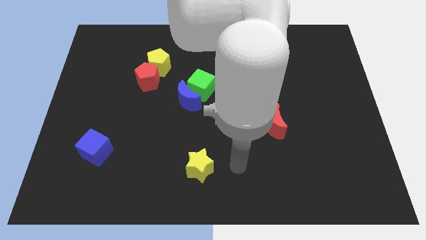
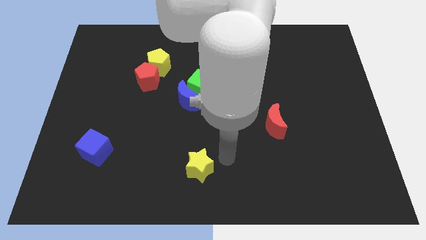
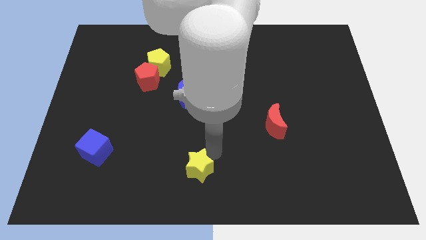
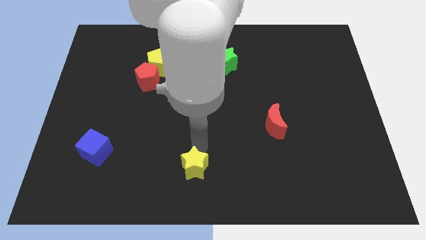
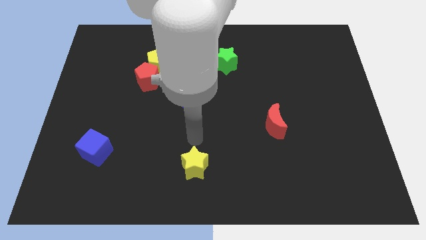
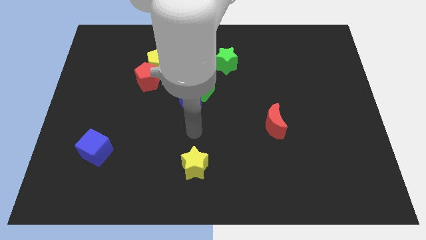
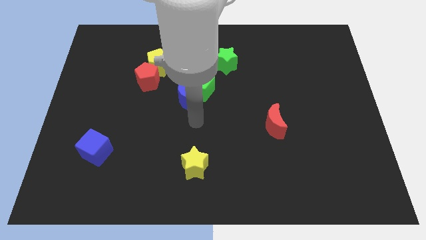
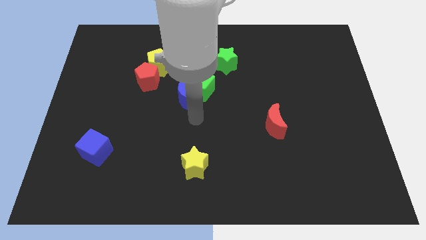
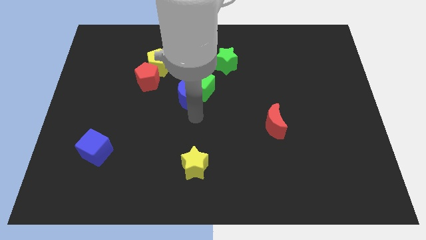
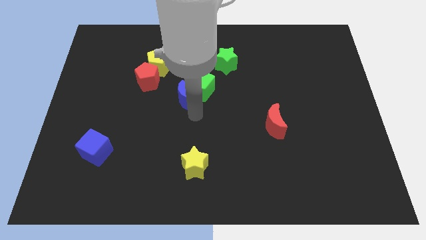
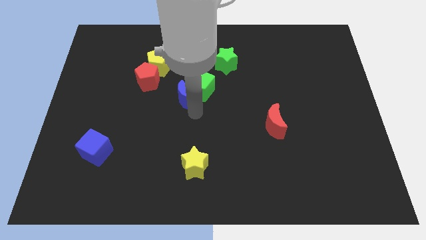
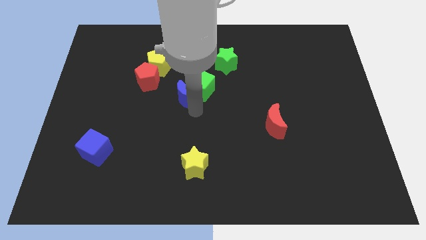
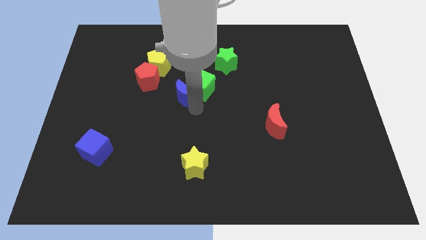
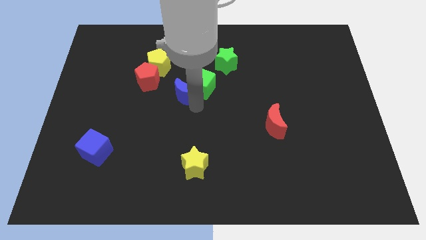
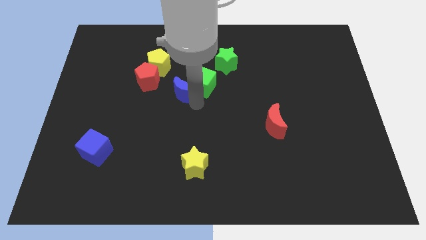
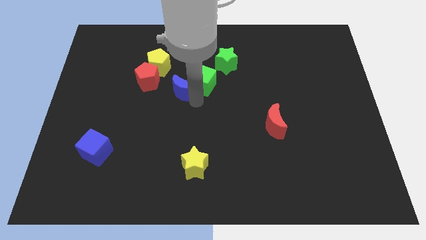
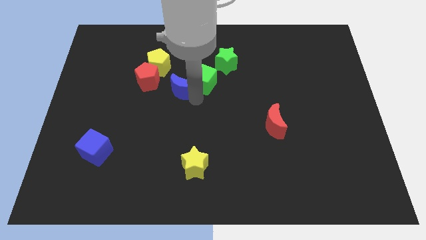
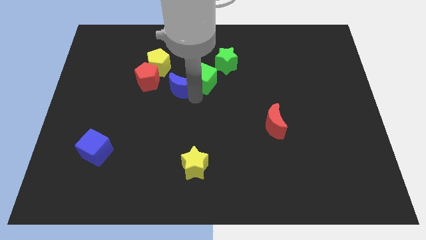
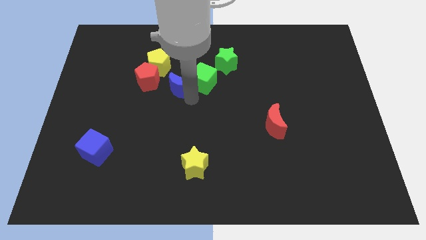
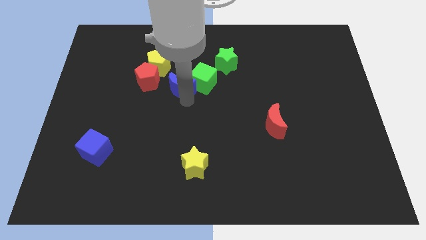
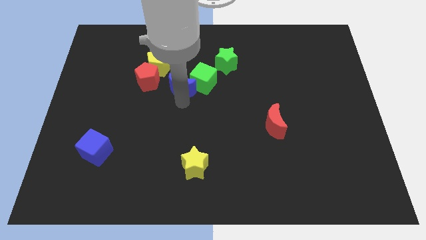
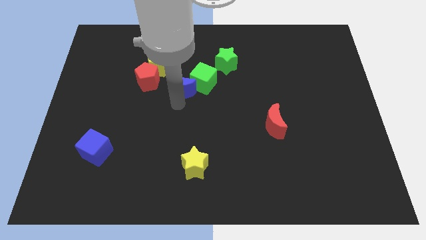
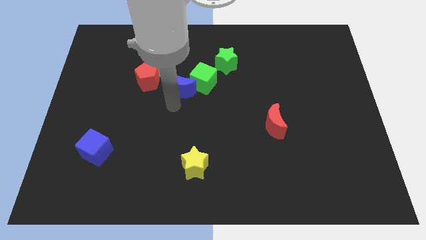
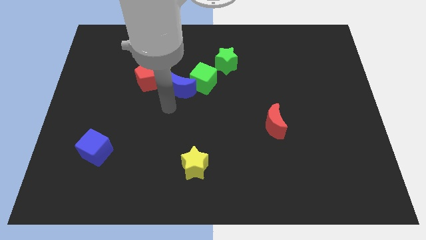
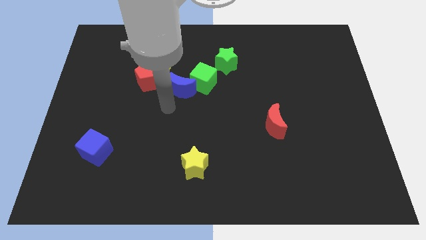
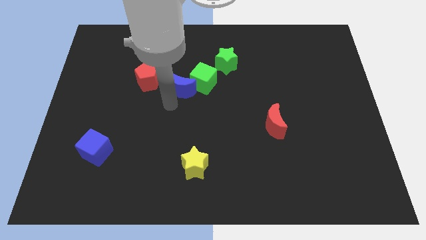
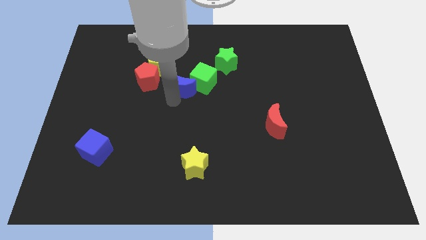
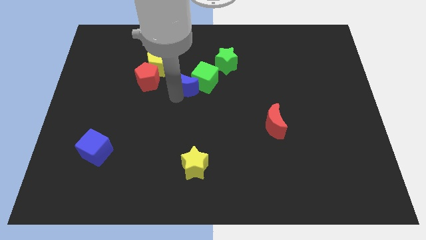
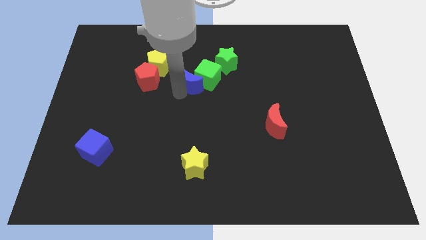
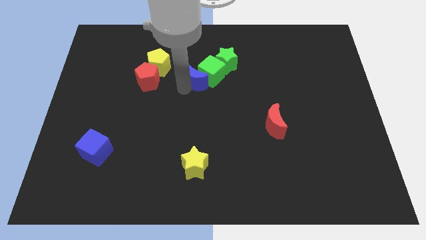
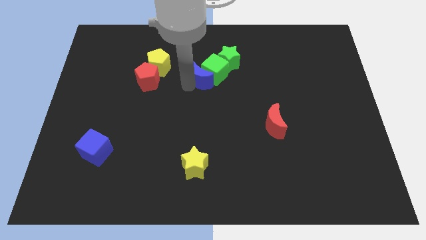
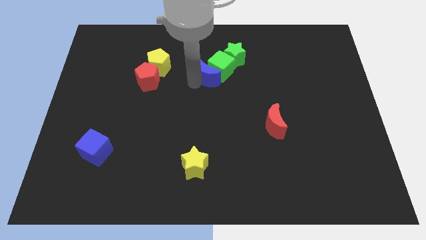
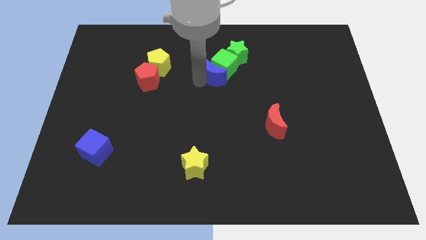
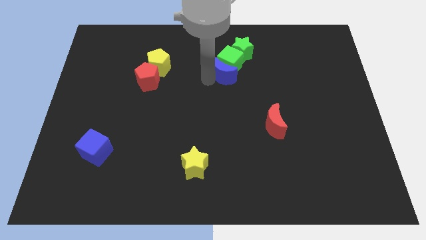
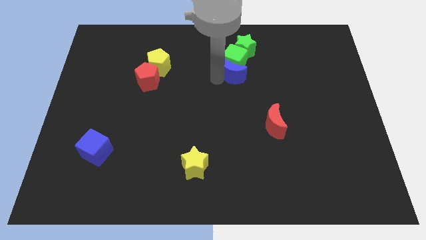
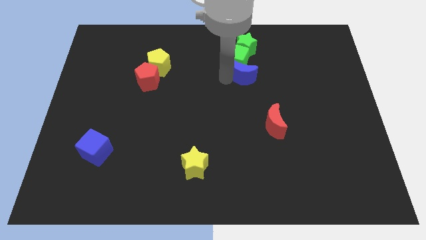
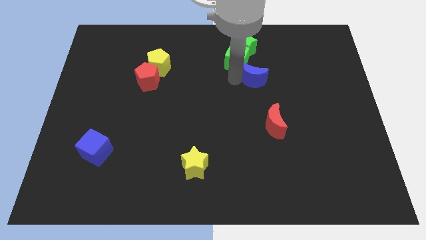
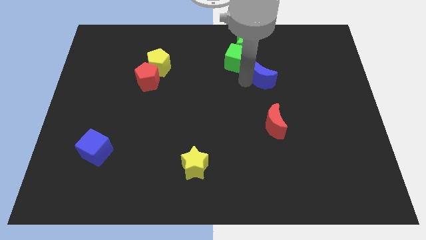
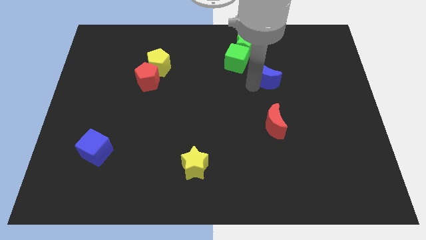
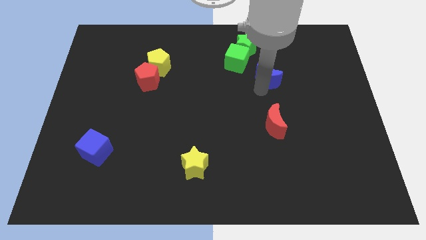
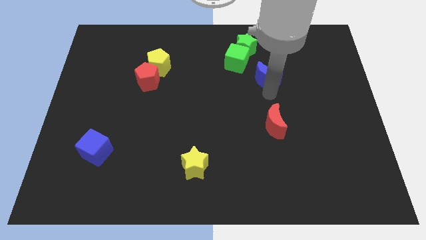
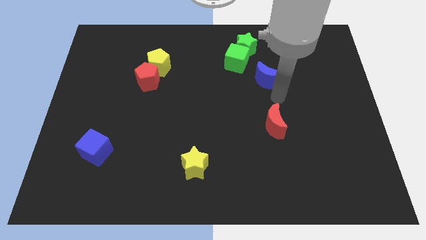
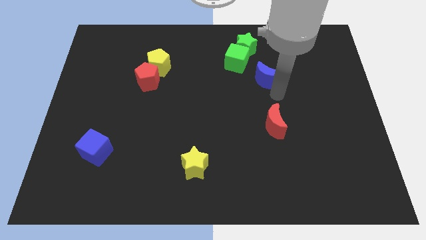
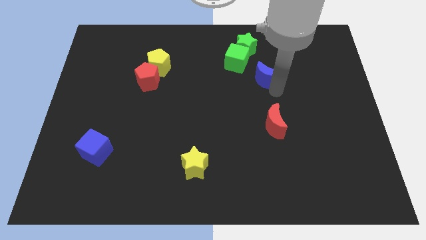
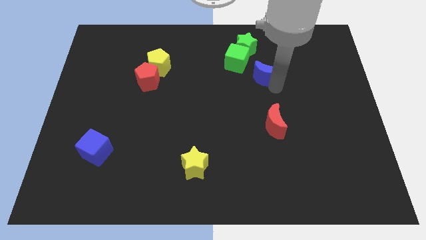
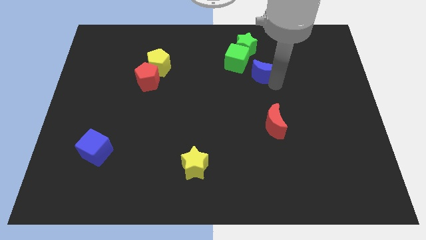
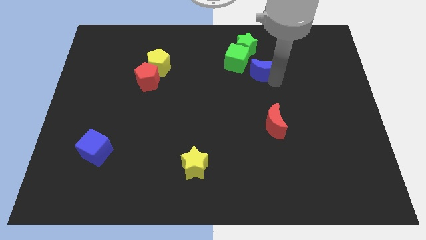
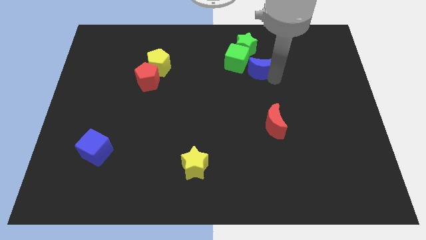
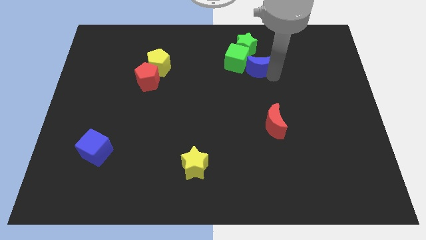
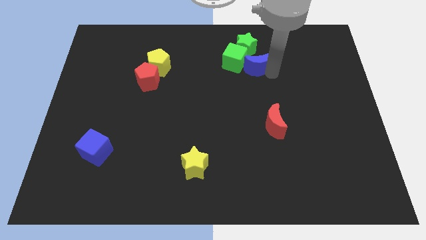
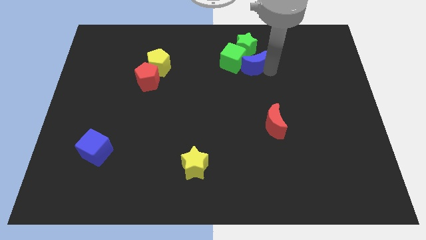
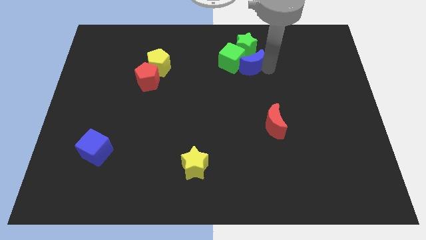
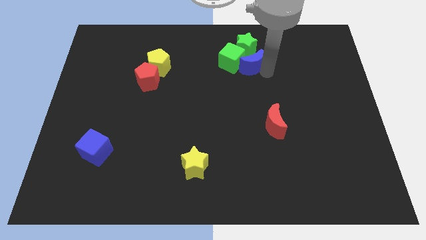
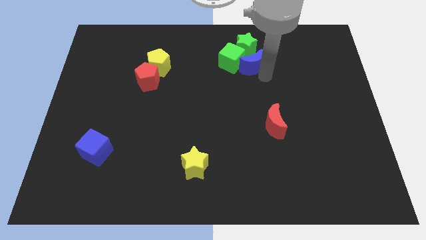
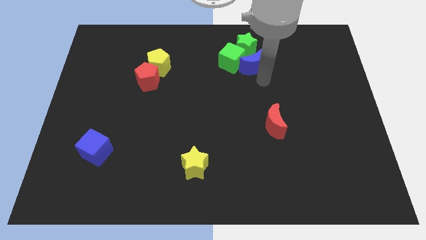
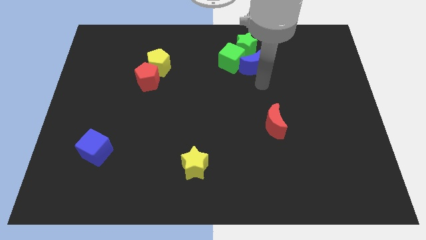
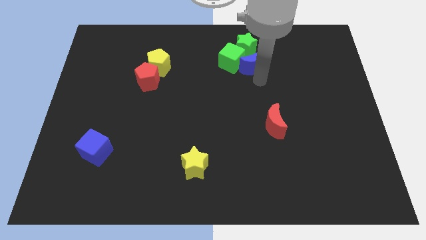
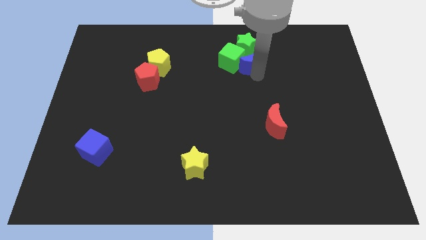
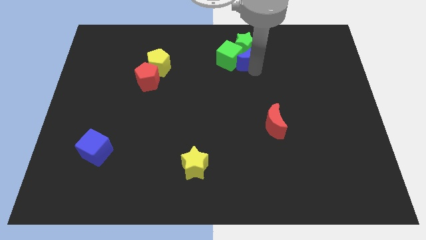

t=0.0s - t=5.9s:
move the blue moon next to the green star

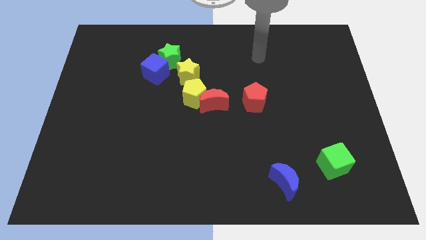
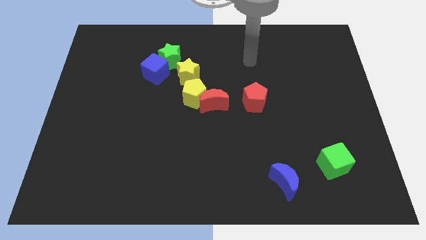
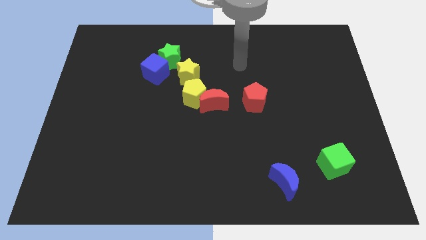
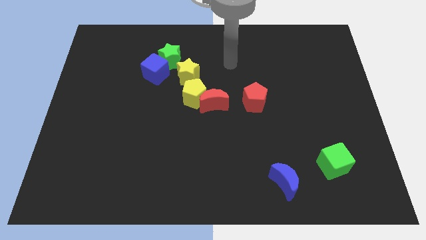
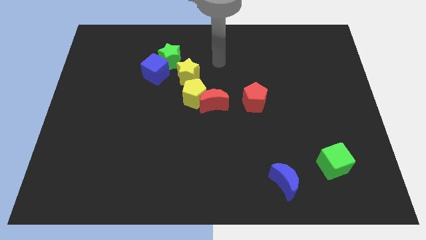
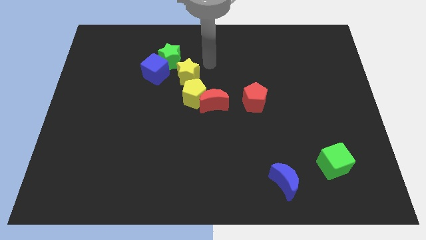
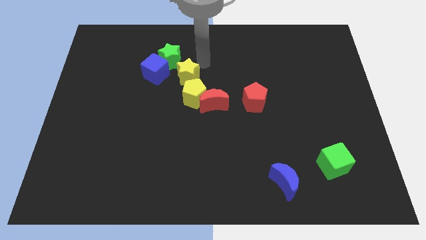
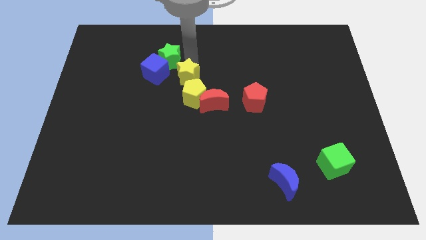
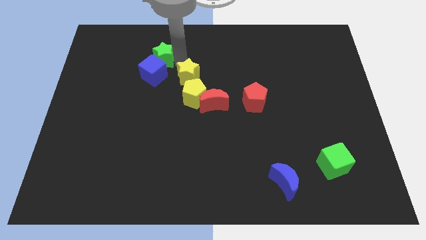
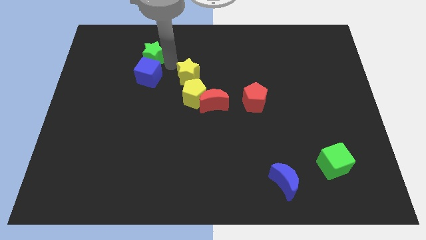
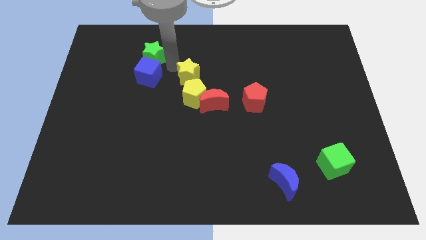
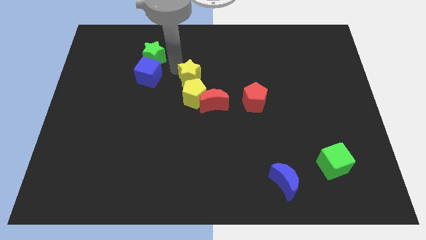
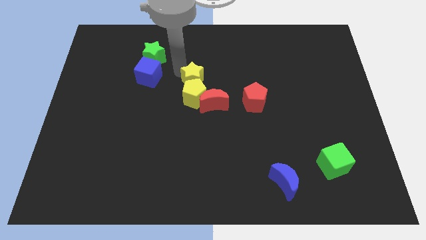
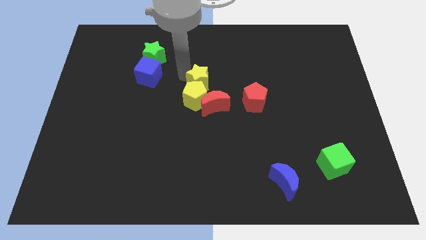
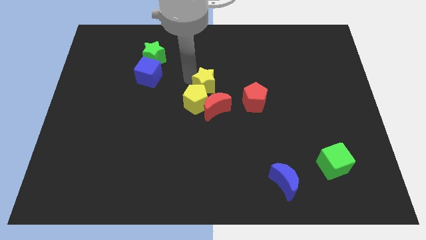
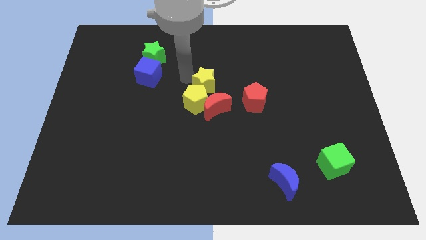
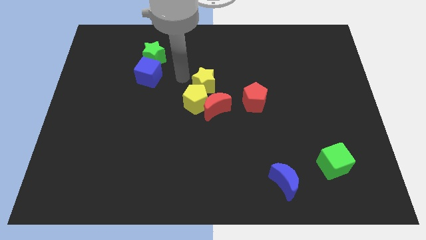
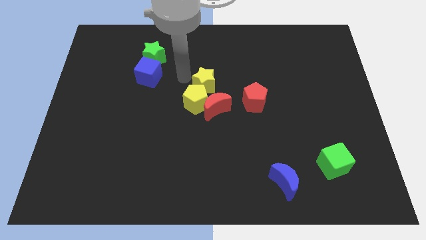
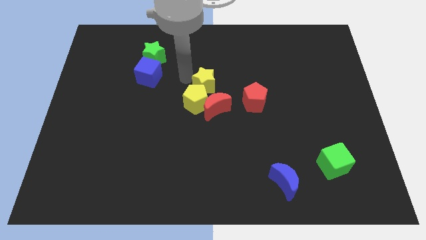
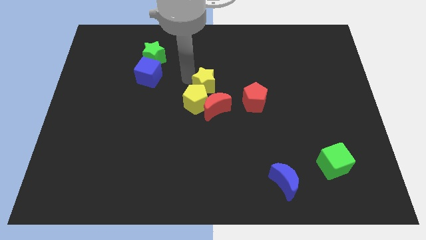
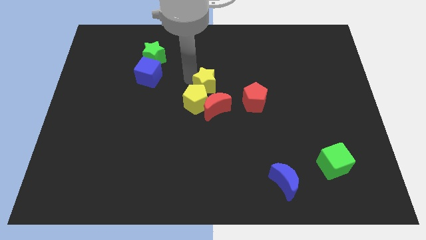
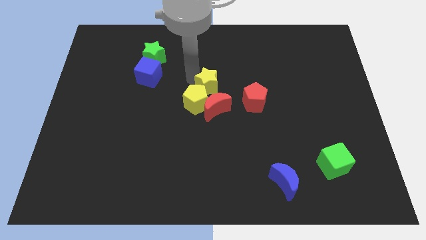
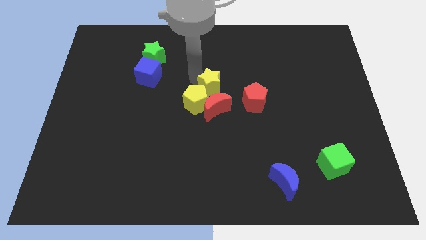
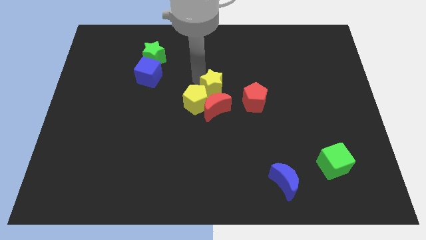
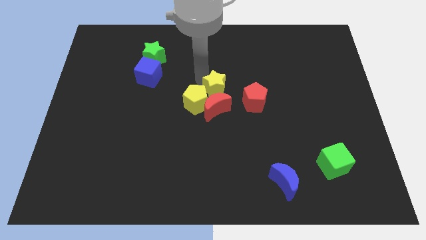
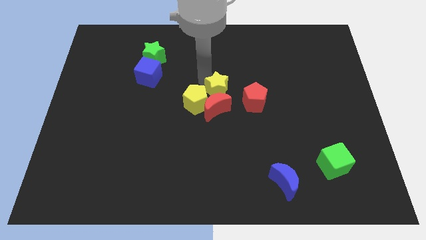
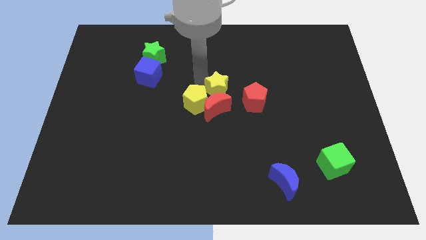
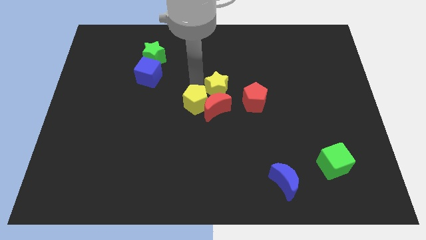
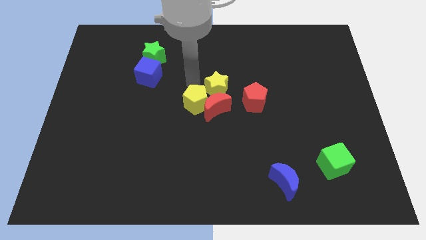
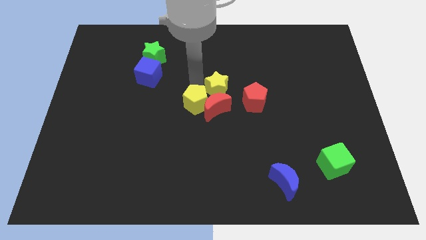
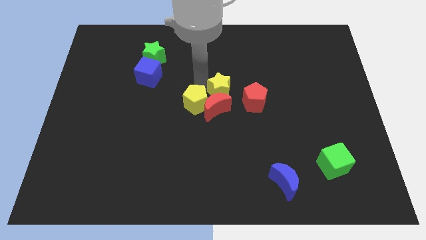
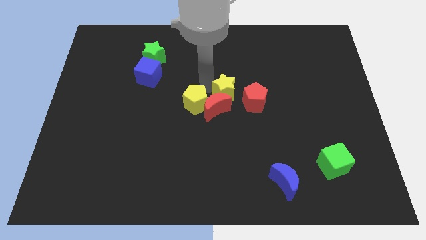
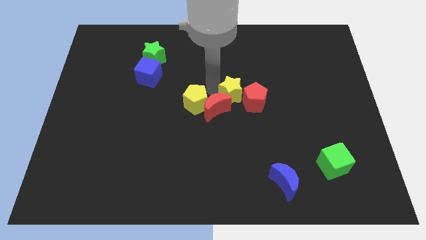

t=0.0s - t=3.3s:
put the yellow star towards the red pentagon
